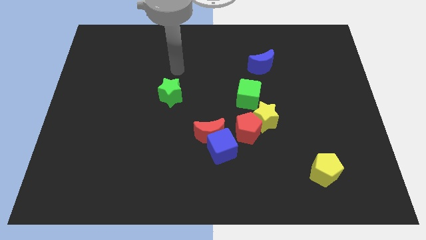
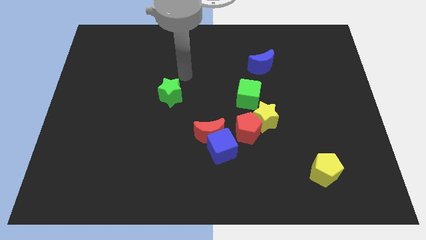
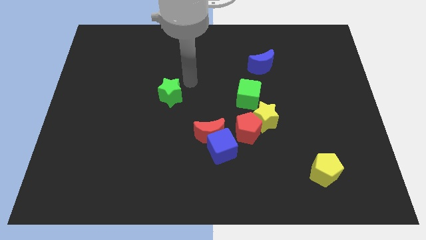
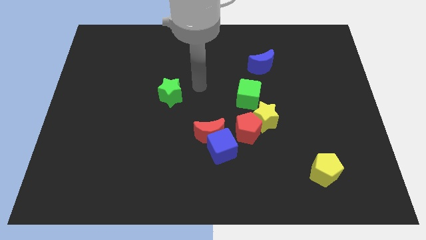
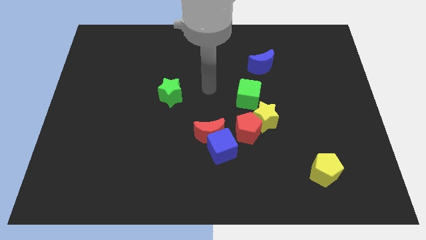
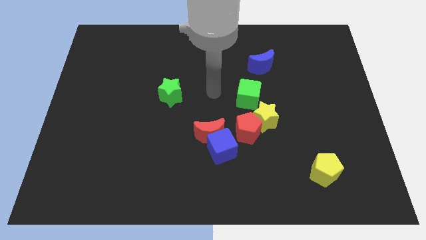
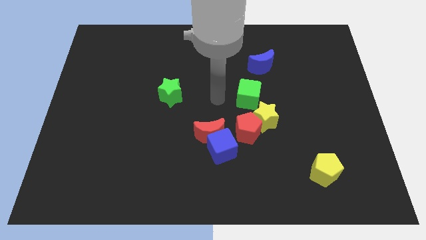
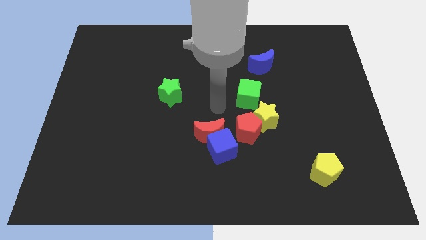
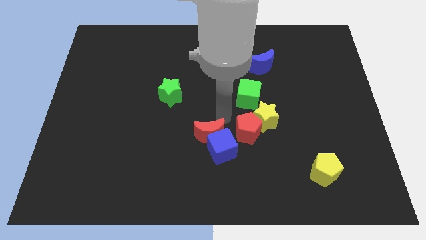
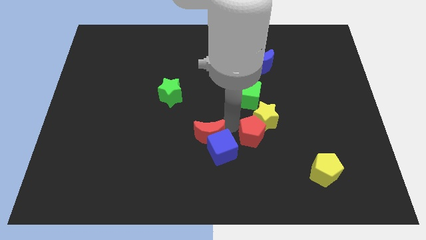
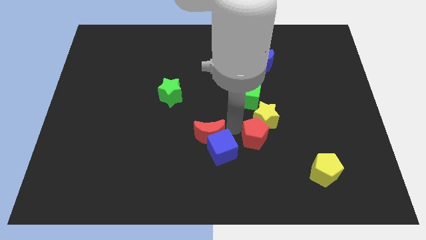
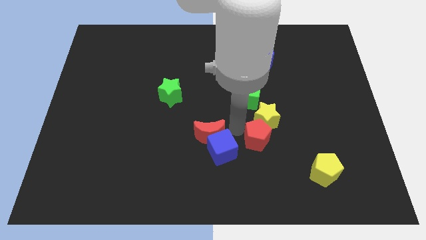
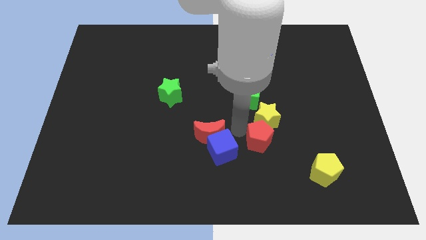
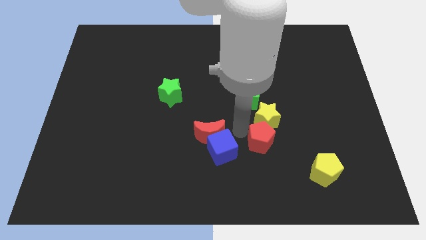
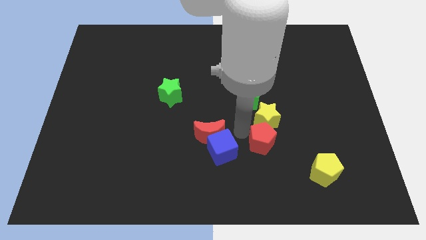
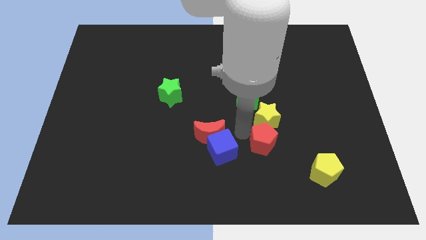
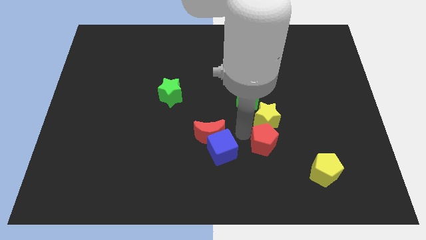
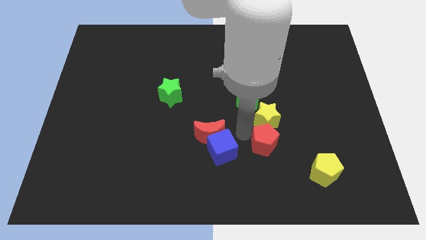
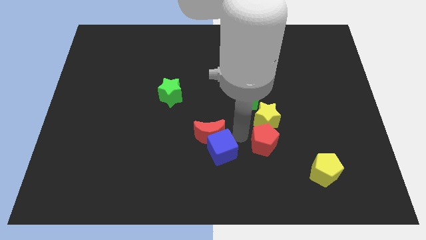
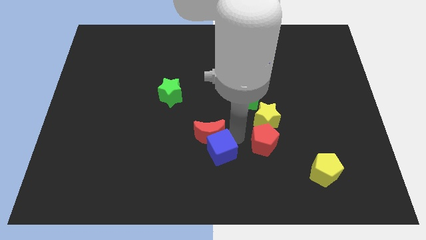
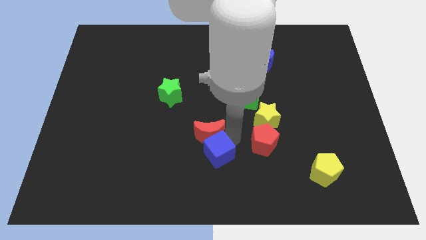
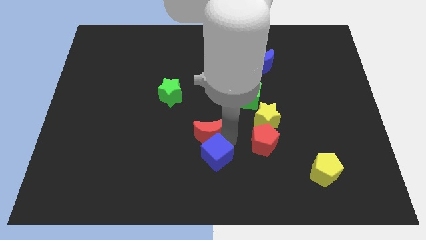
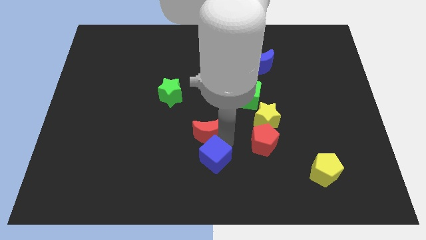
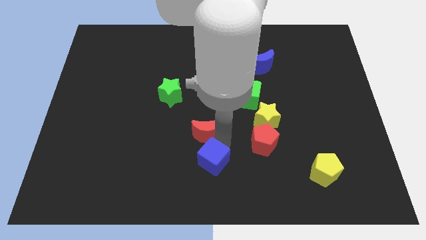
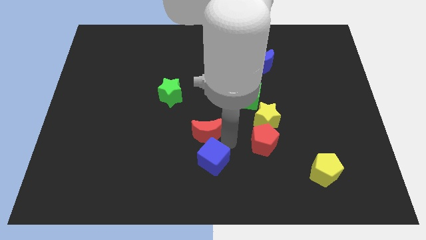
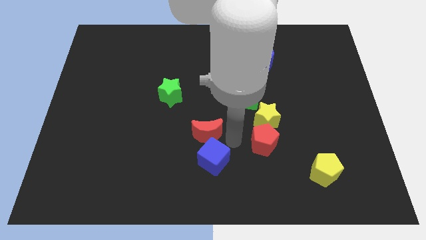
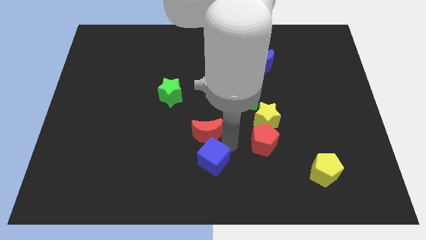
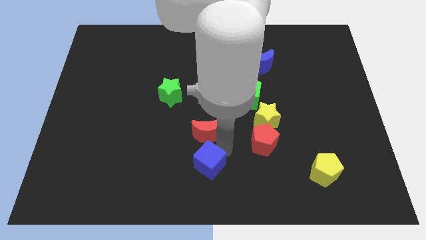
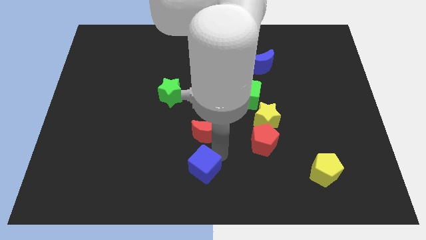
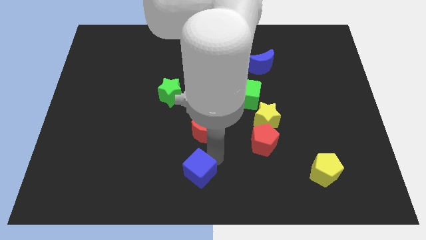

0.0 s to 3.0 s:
separate the blue cube from the red moon and red pentagon

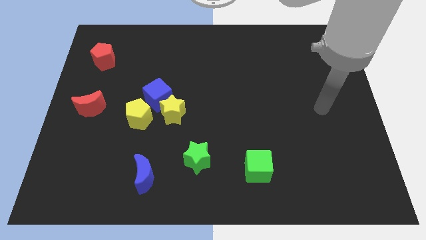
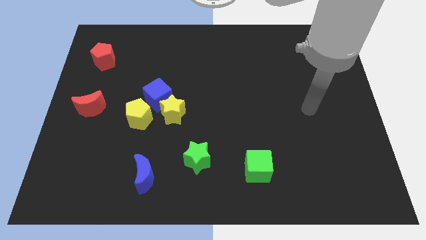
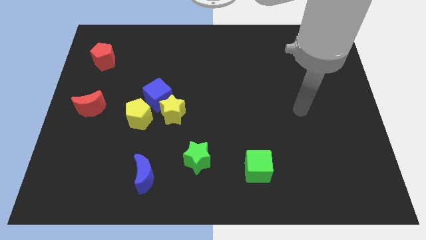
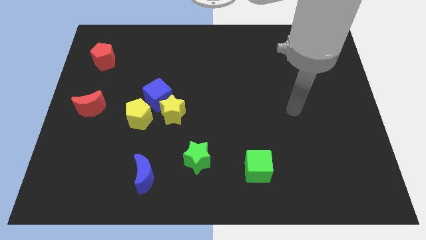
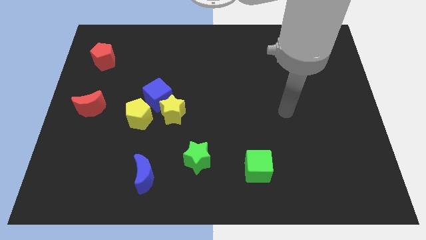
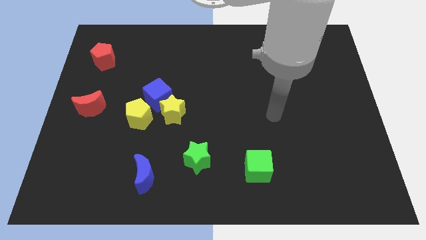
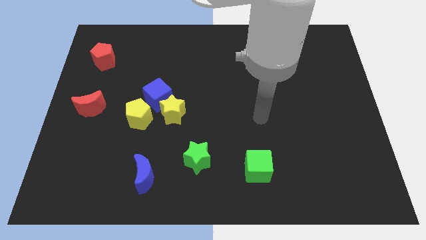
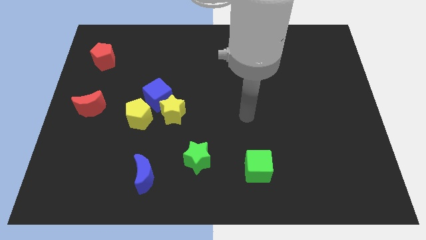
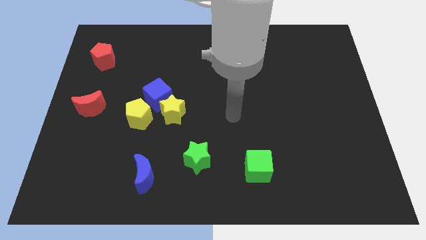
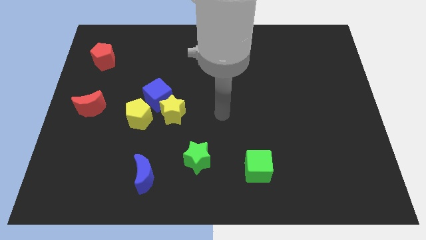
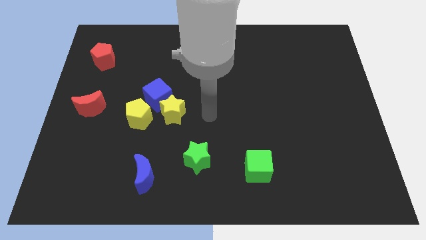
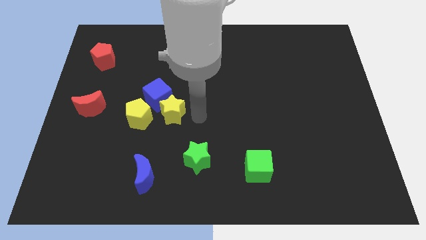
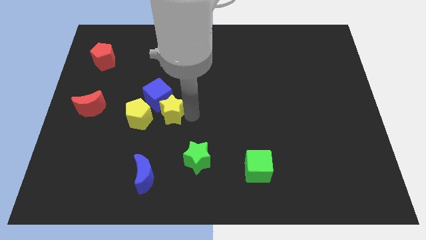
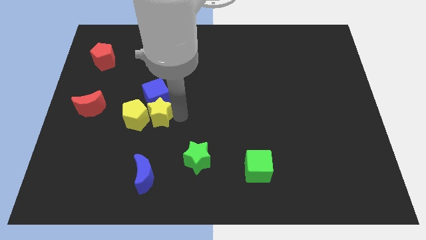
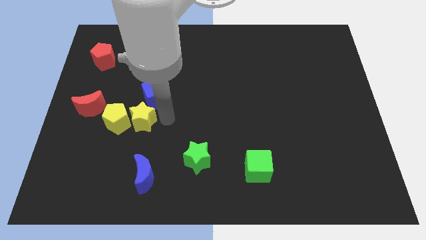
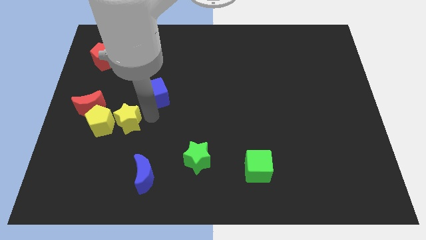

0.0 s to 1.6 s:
separate the blue cube from the yellow star and yellow pentagon

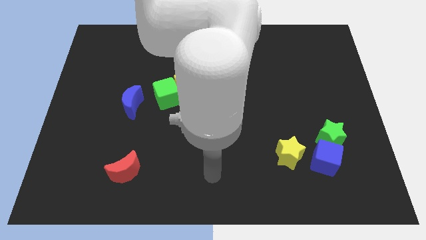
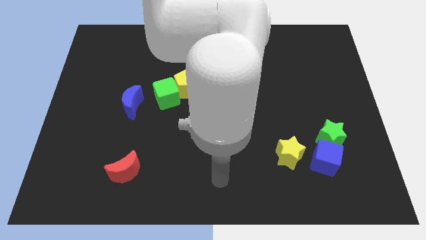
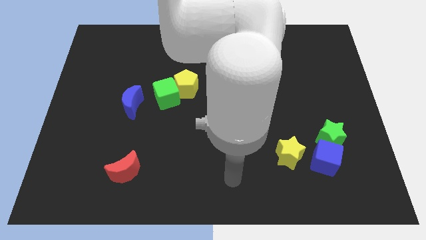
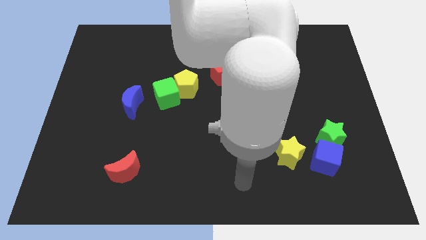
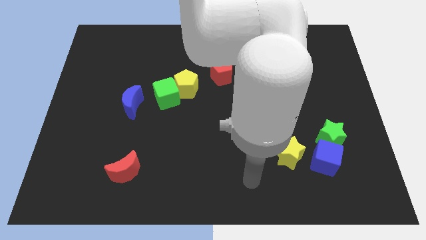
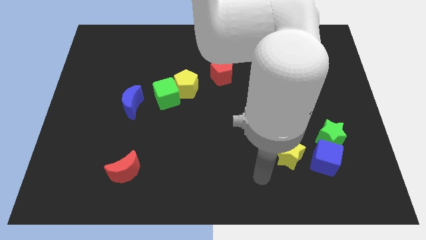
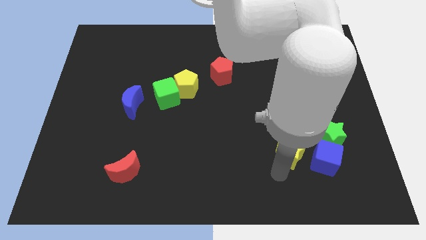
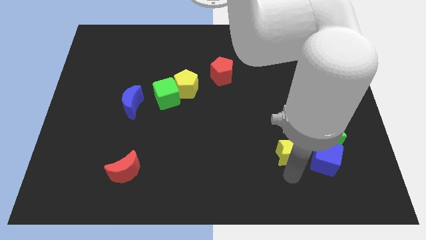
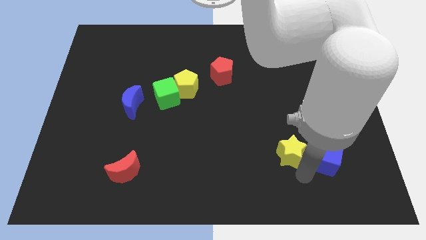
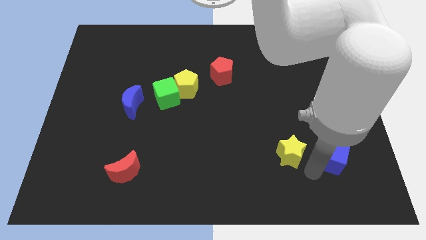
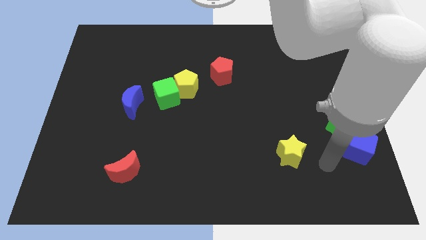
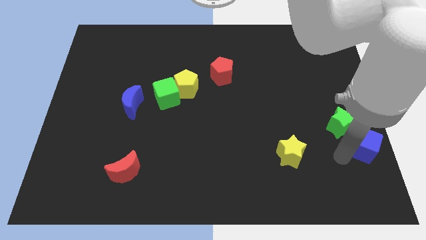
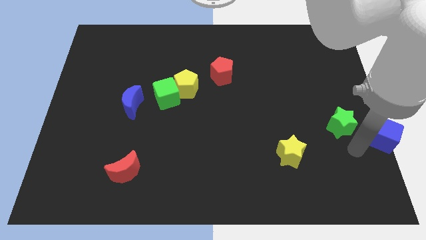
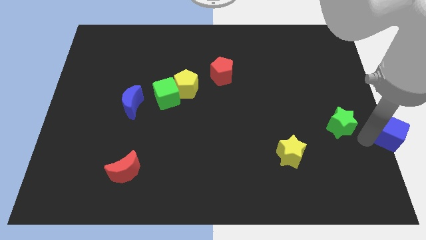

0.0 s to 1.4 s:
move the green star away from the blue cube

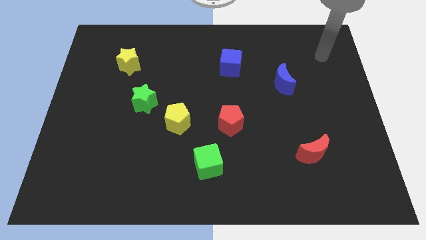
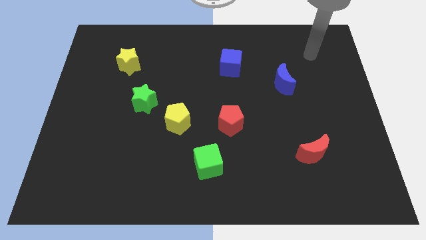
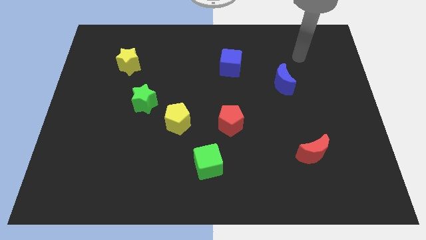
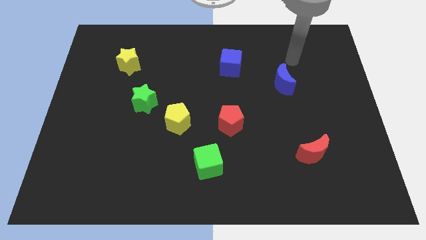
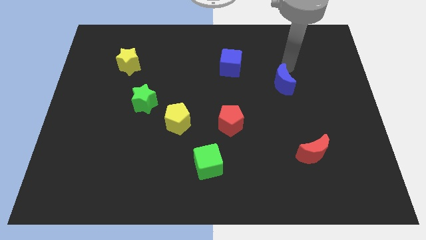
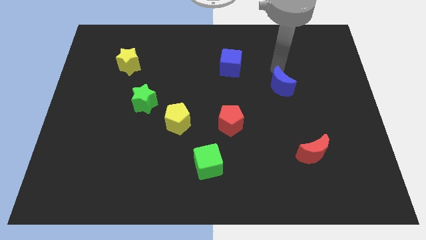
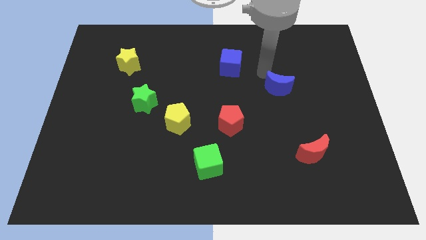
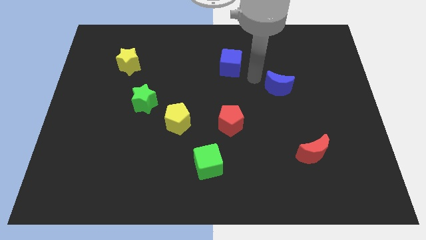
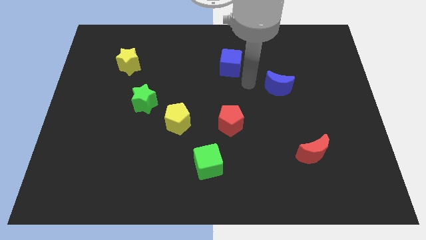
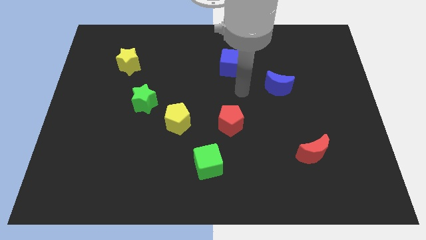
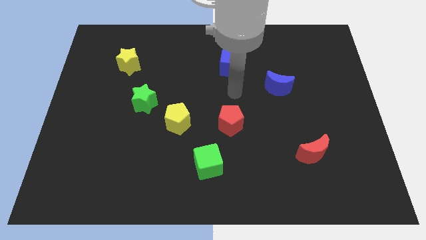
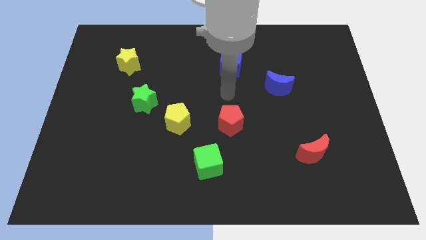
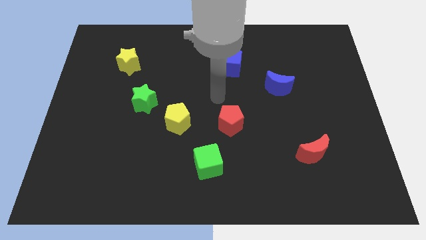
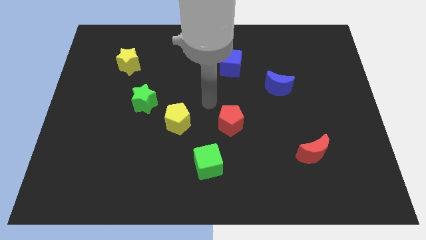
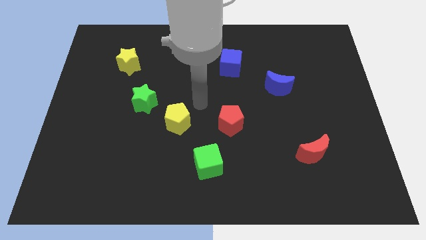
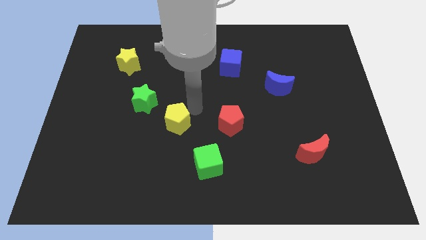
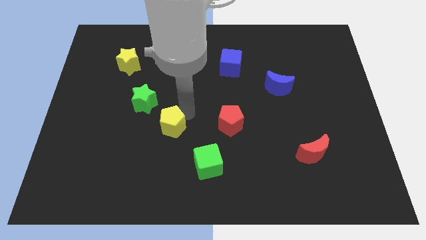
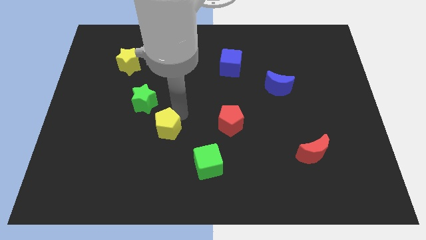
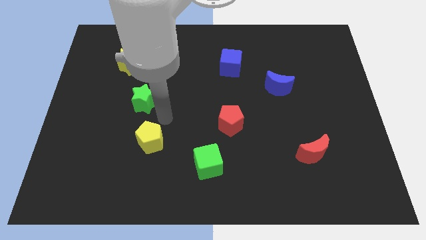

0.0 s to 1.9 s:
separate the green star from the yellow pentagon

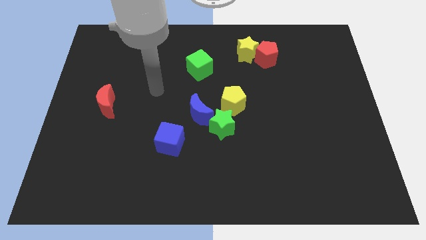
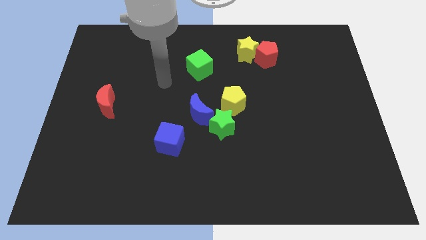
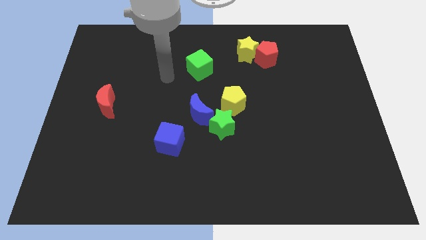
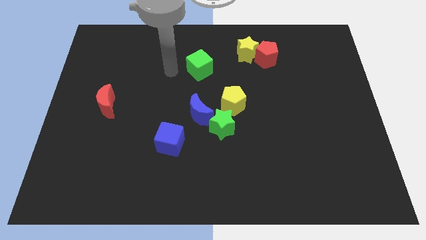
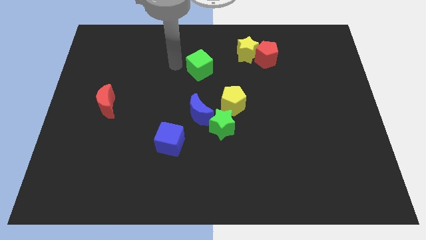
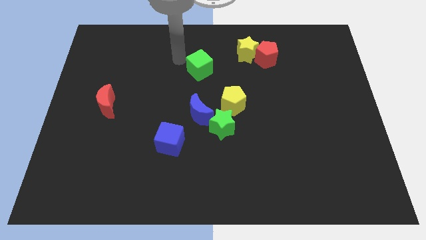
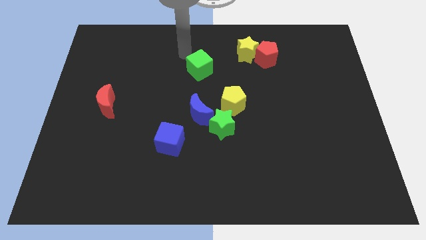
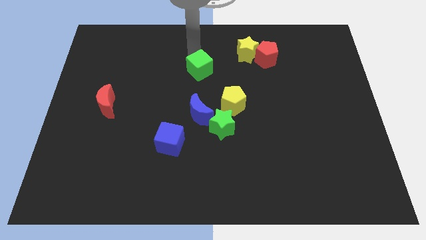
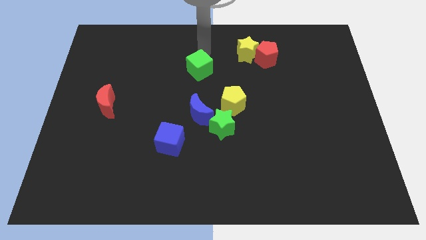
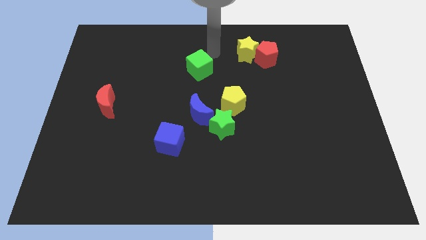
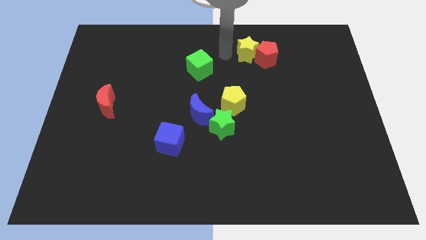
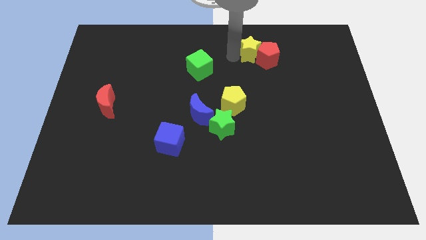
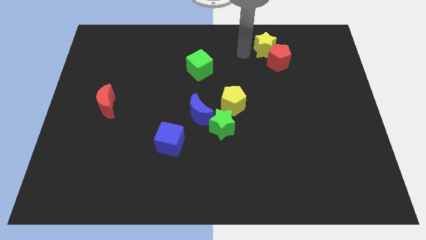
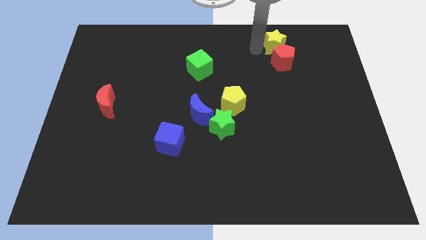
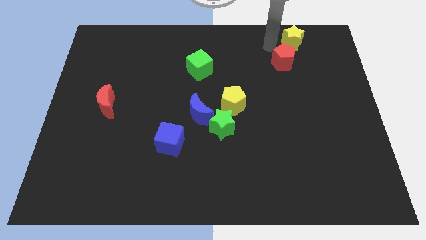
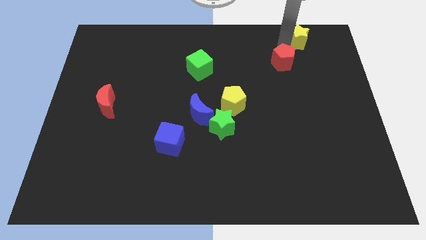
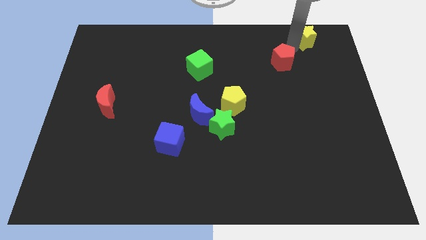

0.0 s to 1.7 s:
pull the red pentagon apart from the yellow star
